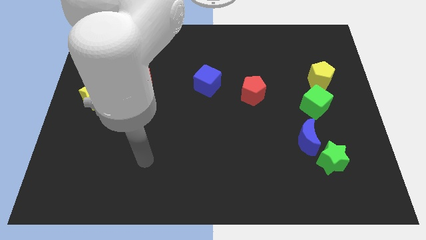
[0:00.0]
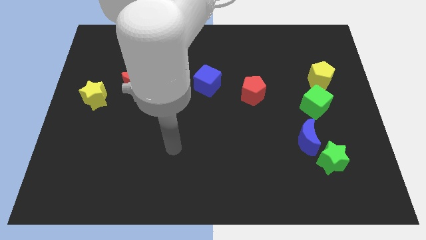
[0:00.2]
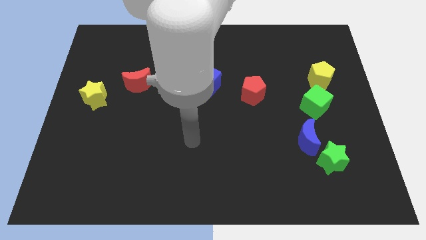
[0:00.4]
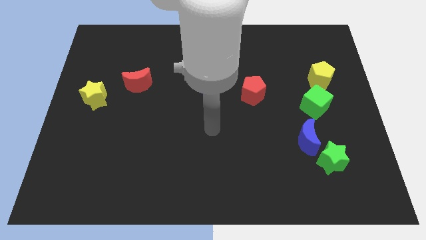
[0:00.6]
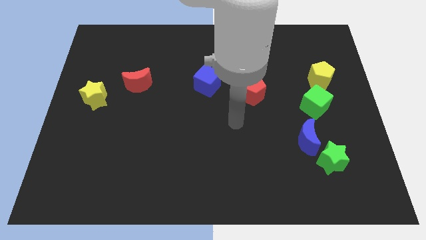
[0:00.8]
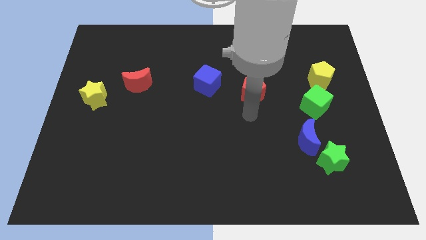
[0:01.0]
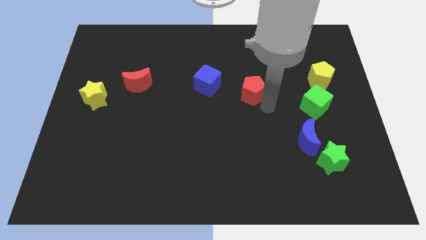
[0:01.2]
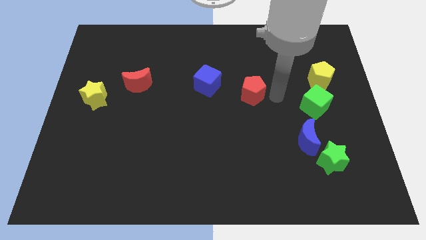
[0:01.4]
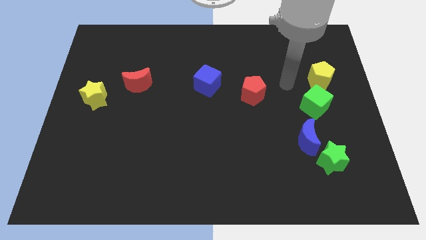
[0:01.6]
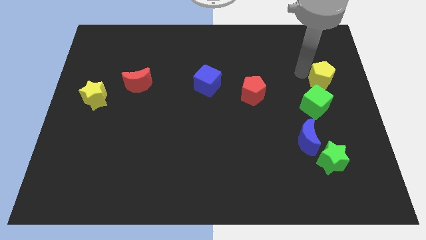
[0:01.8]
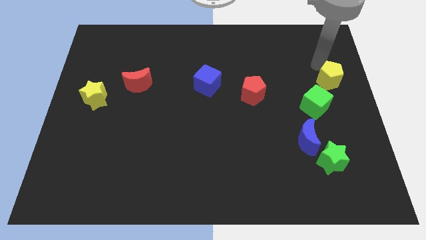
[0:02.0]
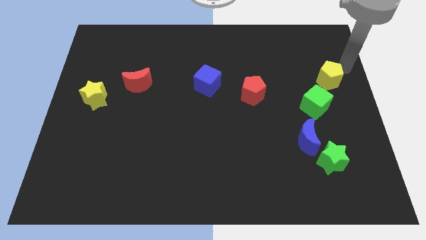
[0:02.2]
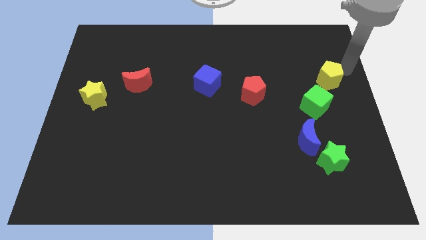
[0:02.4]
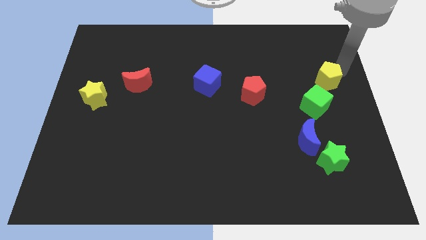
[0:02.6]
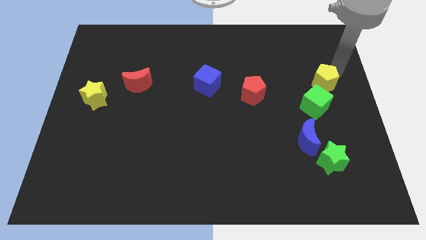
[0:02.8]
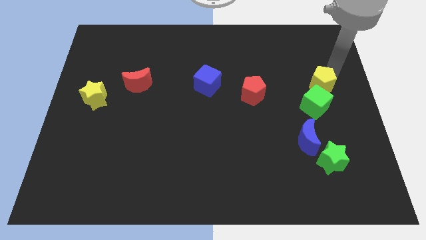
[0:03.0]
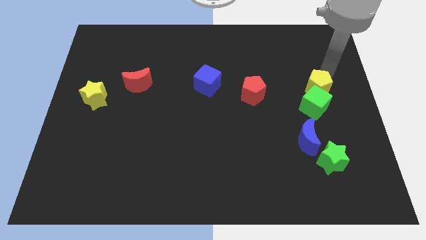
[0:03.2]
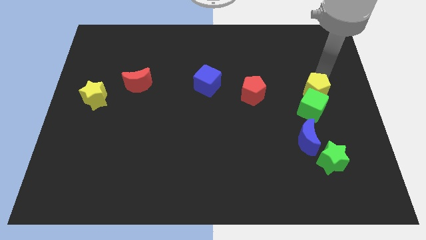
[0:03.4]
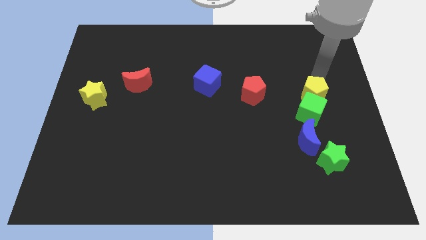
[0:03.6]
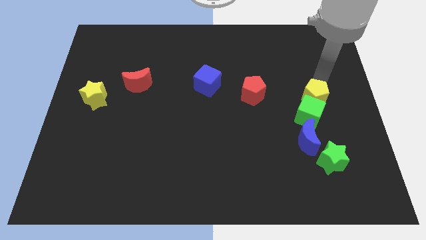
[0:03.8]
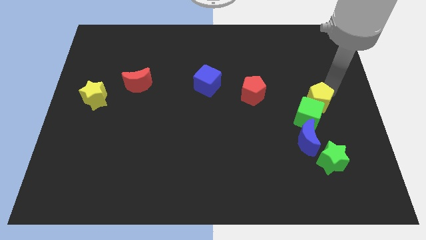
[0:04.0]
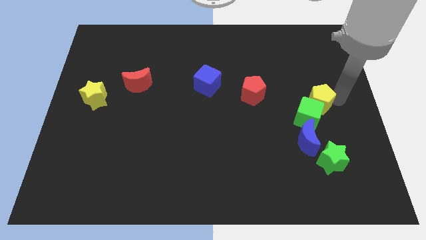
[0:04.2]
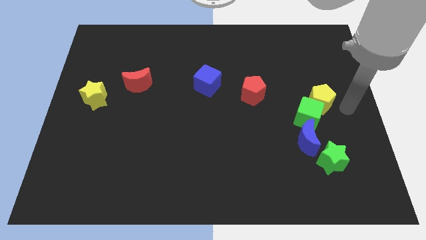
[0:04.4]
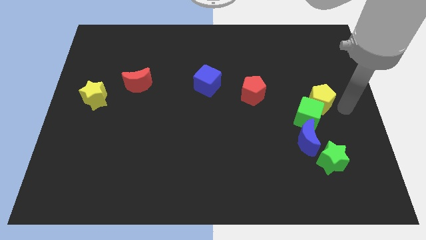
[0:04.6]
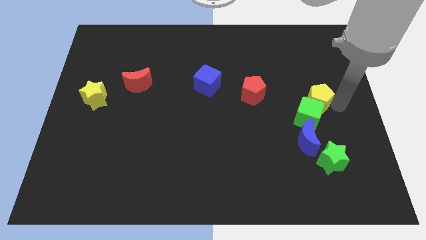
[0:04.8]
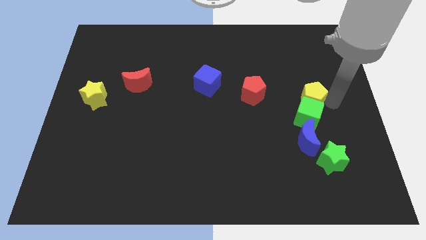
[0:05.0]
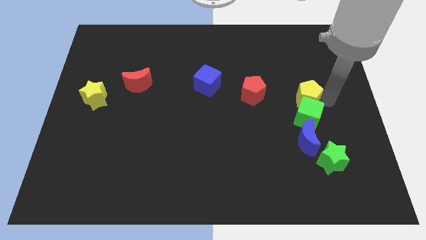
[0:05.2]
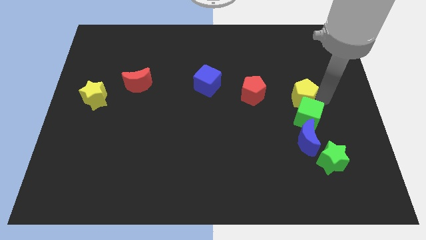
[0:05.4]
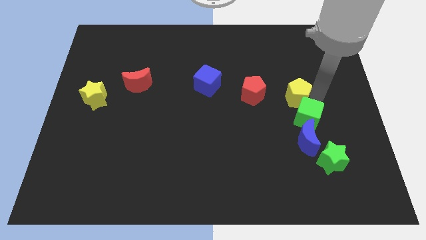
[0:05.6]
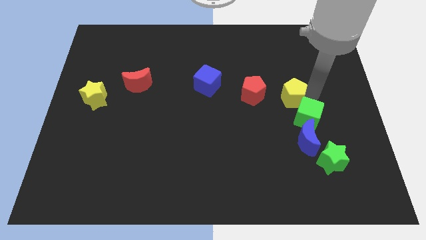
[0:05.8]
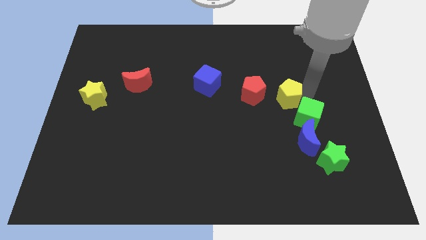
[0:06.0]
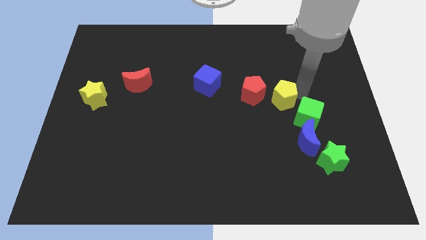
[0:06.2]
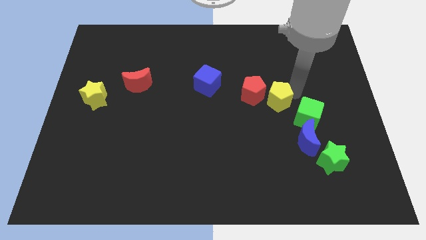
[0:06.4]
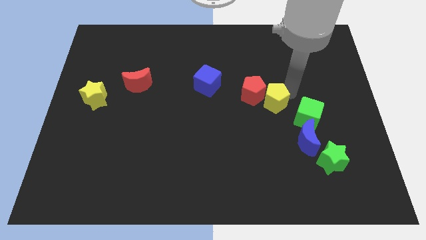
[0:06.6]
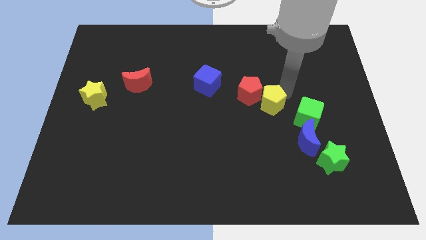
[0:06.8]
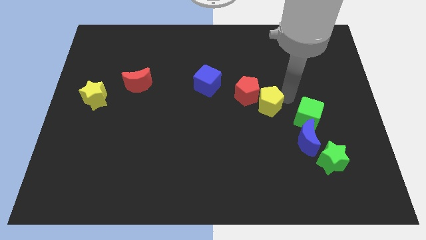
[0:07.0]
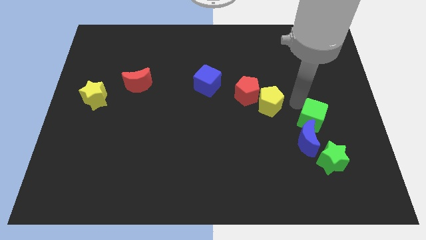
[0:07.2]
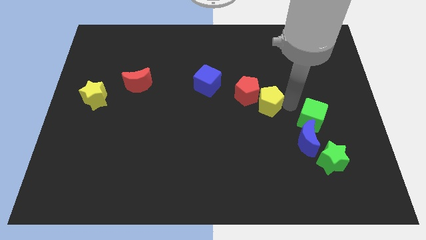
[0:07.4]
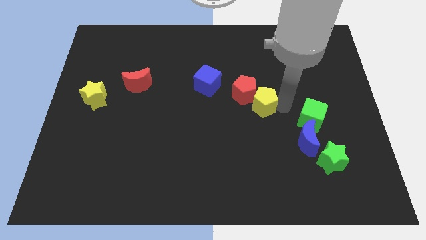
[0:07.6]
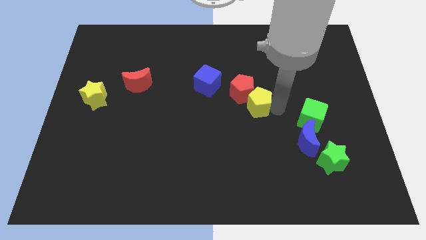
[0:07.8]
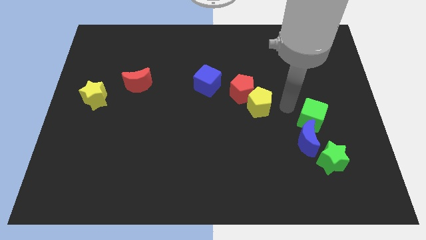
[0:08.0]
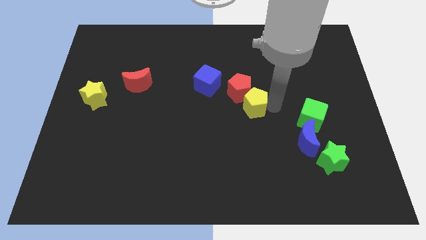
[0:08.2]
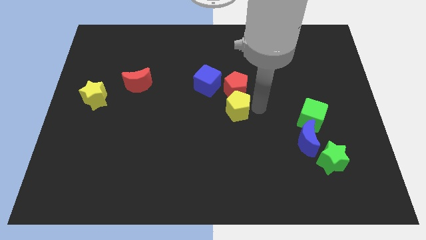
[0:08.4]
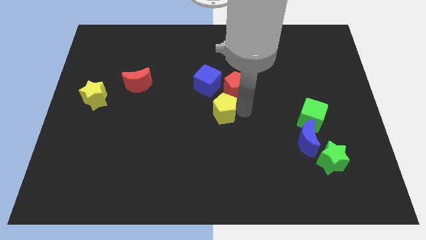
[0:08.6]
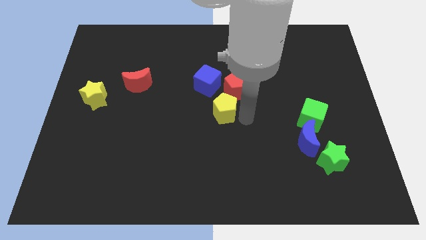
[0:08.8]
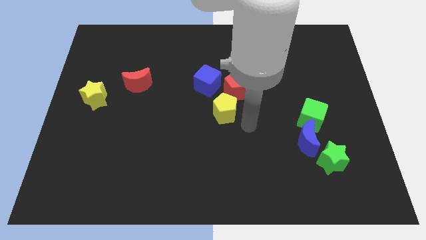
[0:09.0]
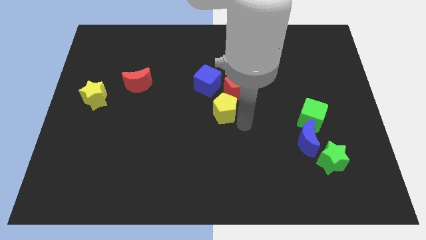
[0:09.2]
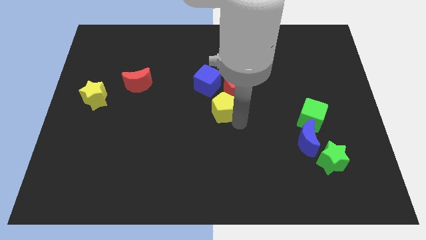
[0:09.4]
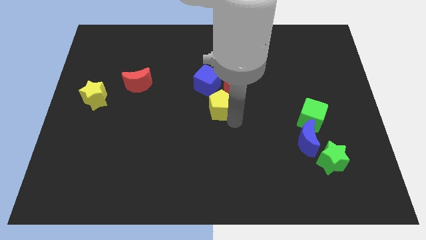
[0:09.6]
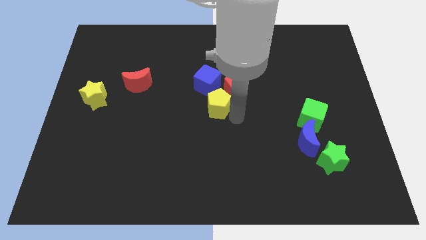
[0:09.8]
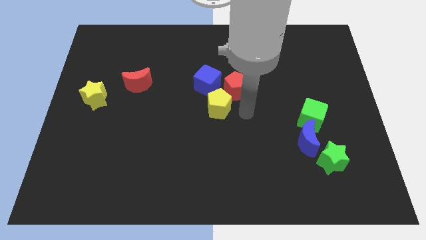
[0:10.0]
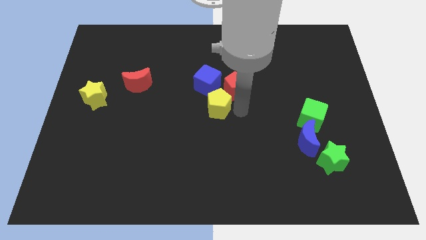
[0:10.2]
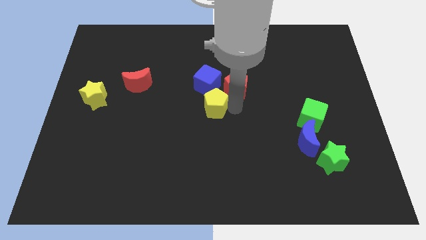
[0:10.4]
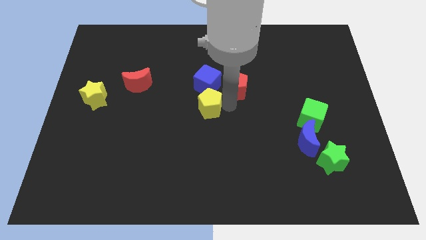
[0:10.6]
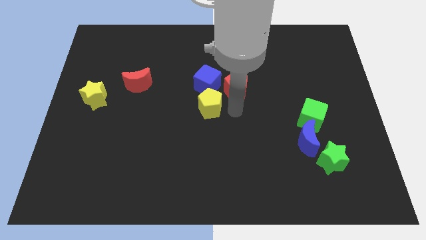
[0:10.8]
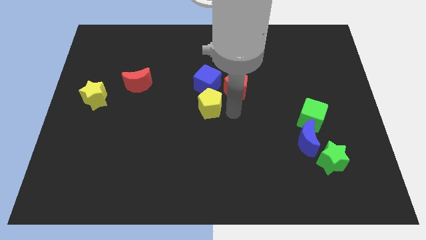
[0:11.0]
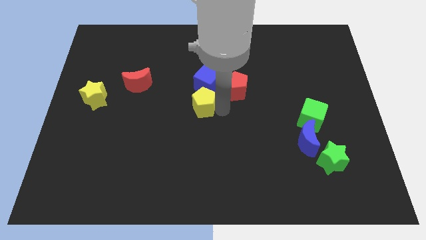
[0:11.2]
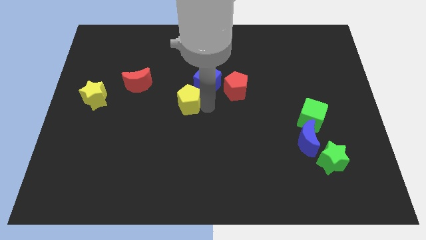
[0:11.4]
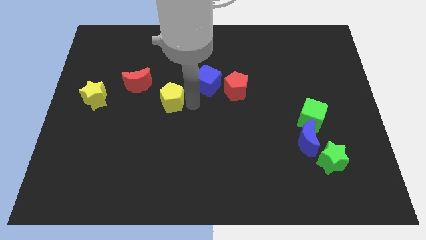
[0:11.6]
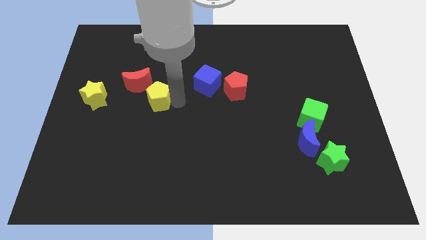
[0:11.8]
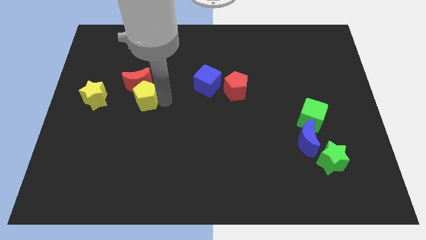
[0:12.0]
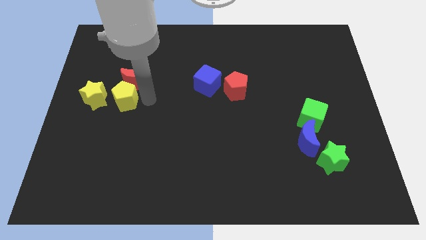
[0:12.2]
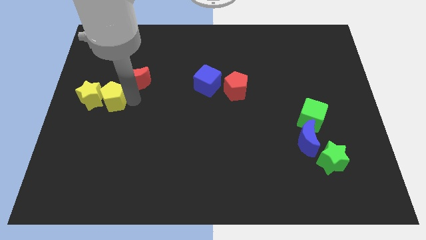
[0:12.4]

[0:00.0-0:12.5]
put the yellow pentagon to the yellow star

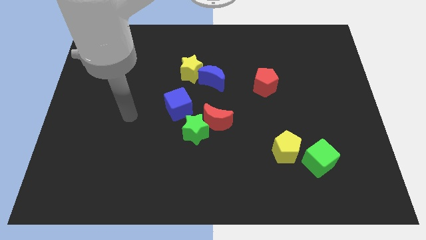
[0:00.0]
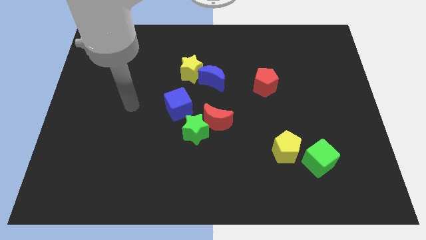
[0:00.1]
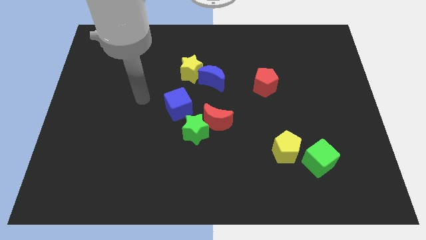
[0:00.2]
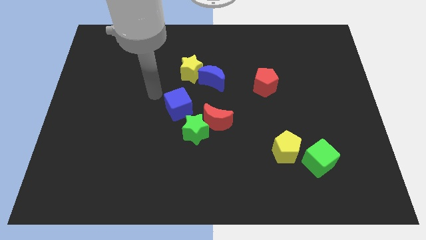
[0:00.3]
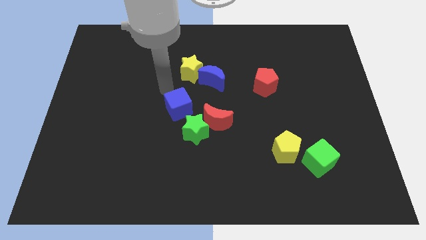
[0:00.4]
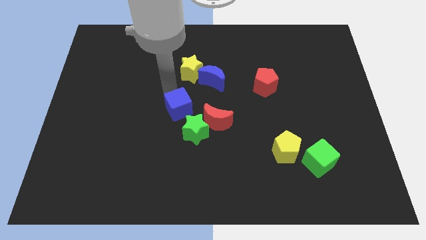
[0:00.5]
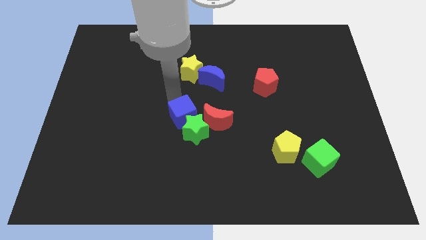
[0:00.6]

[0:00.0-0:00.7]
slide the blue cube close to the green star
